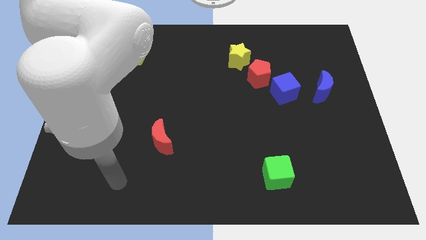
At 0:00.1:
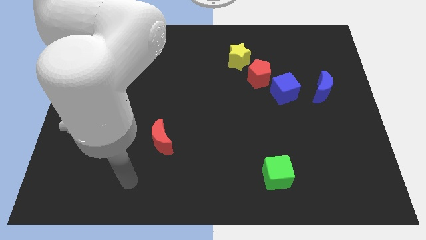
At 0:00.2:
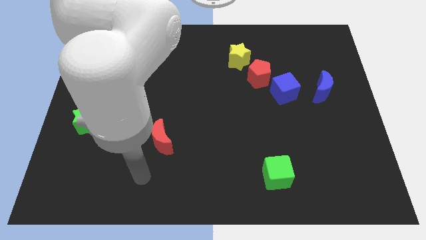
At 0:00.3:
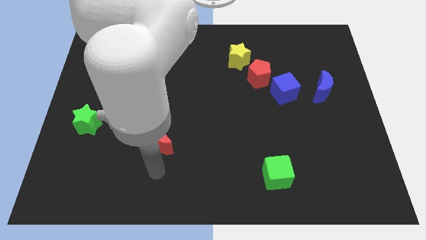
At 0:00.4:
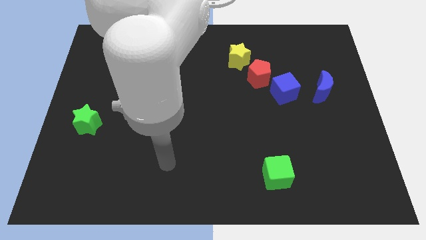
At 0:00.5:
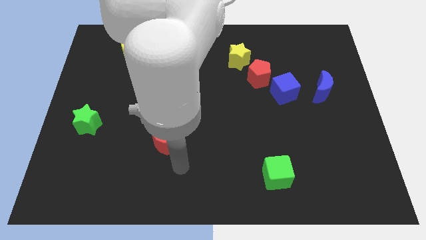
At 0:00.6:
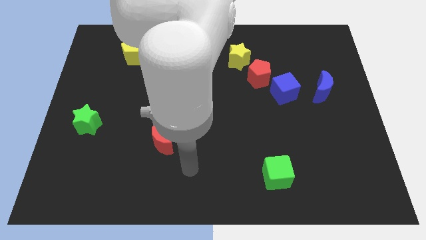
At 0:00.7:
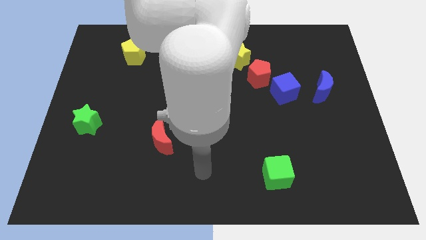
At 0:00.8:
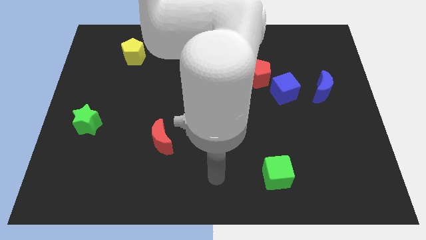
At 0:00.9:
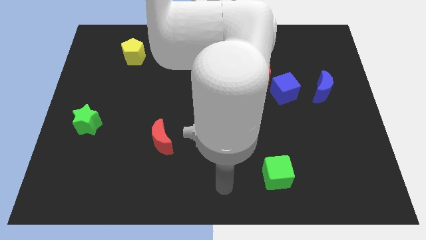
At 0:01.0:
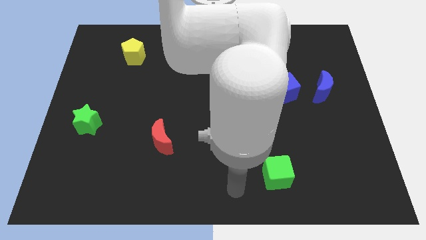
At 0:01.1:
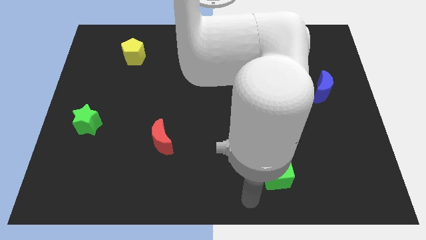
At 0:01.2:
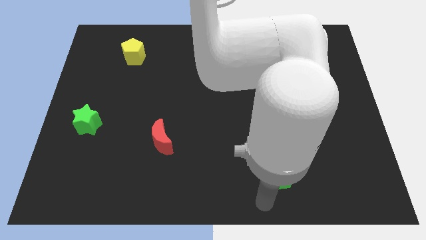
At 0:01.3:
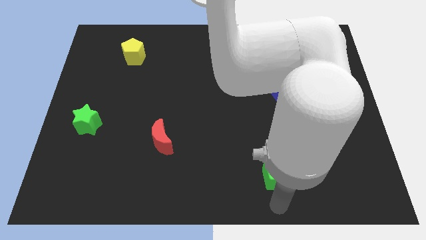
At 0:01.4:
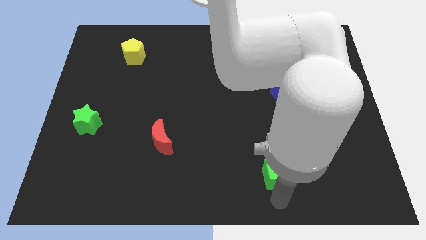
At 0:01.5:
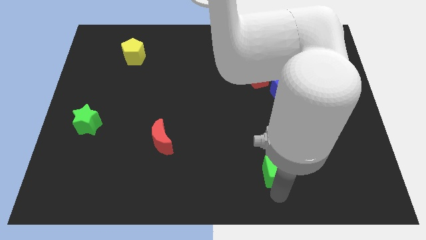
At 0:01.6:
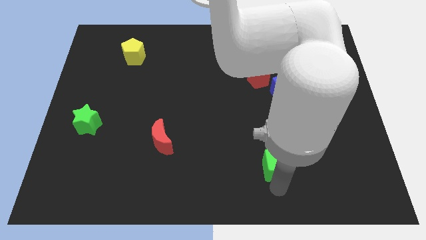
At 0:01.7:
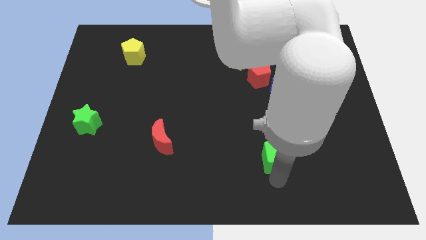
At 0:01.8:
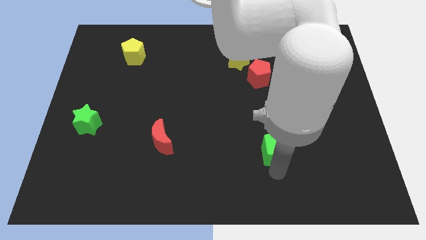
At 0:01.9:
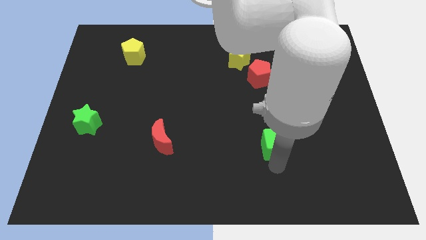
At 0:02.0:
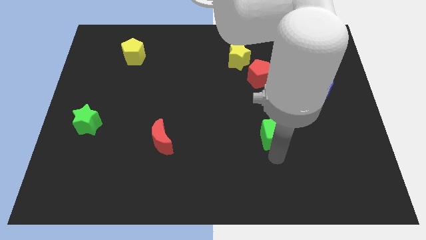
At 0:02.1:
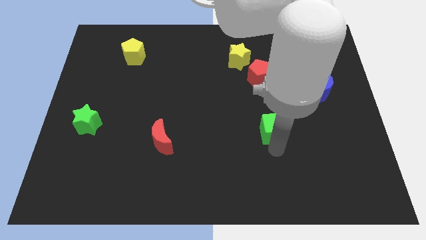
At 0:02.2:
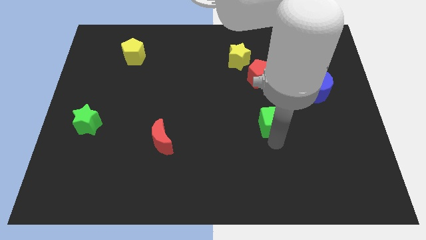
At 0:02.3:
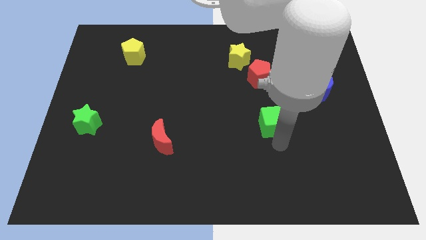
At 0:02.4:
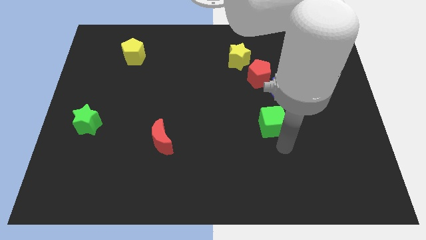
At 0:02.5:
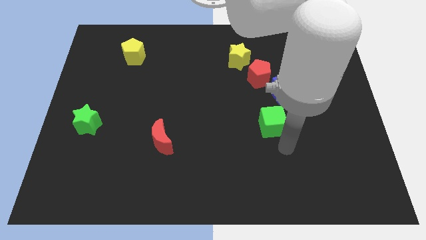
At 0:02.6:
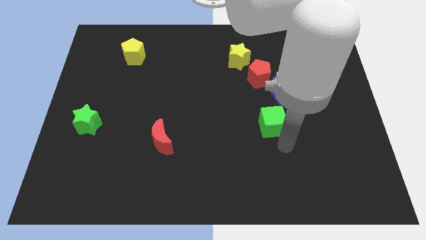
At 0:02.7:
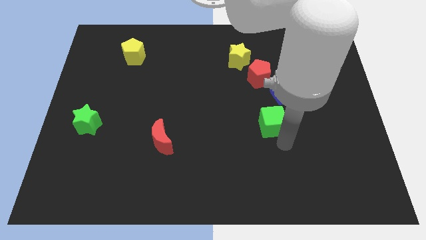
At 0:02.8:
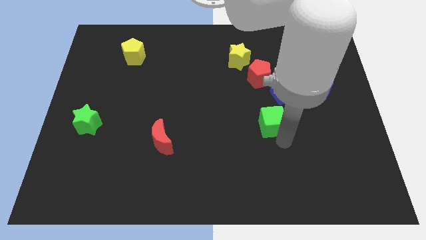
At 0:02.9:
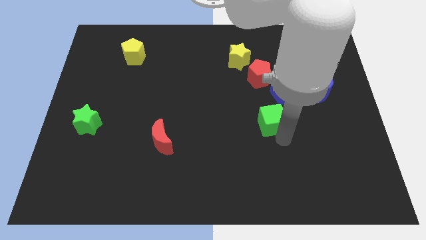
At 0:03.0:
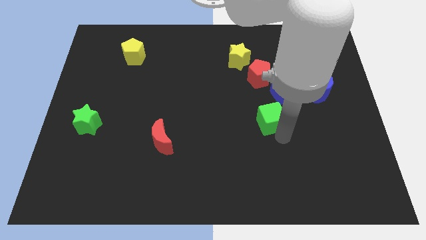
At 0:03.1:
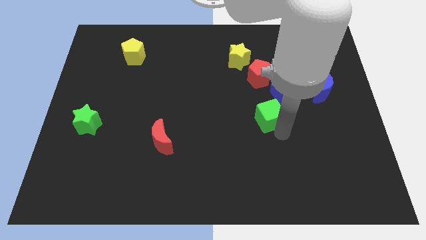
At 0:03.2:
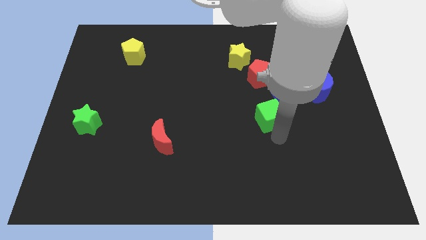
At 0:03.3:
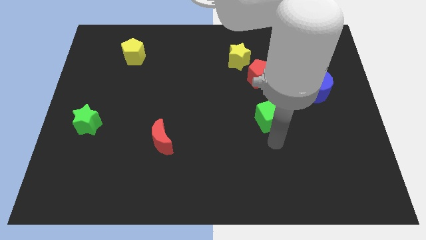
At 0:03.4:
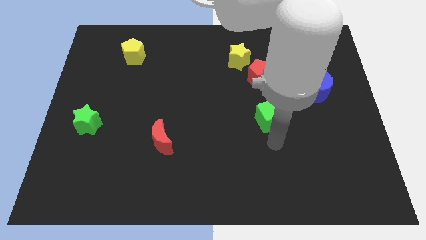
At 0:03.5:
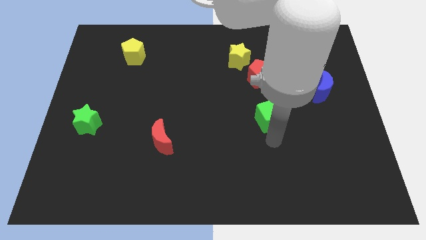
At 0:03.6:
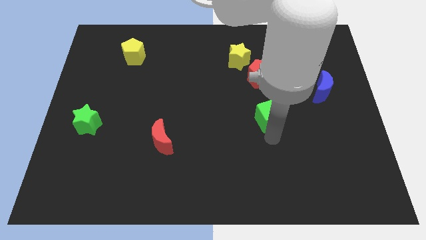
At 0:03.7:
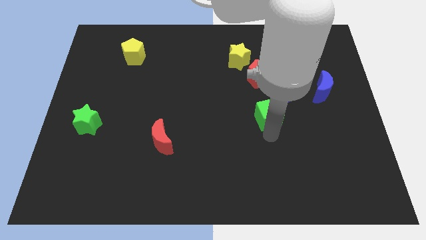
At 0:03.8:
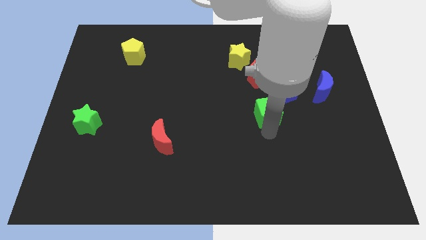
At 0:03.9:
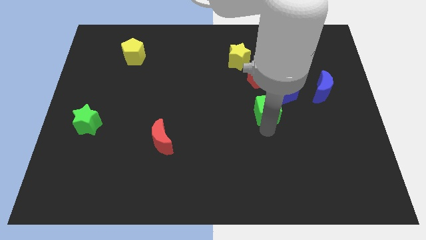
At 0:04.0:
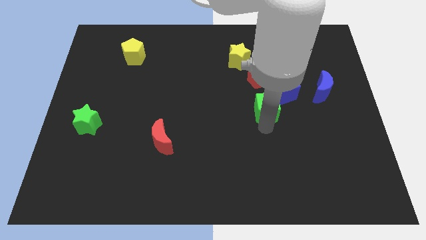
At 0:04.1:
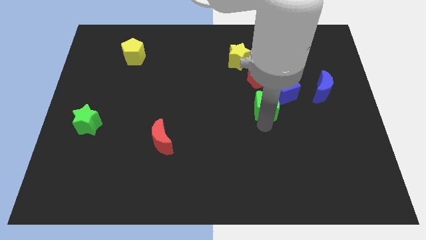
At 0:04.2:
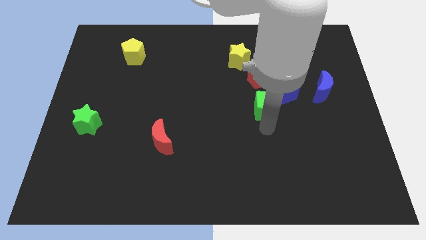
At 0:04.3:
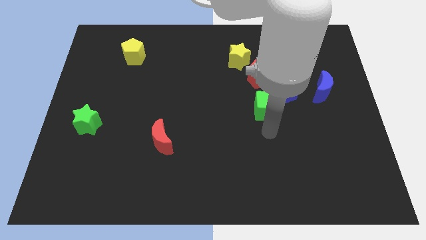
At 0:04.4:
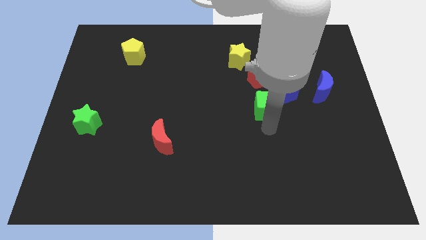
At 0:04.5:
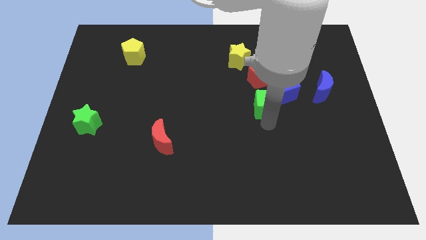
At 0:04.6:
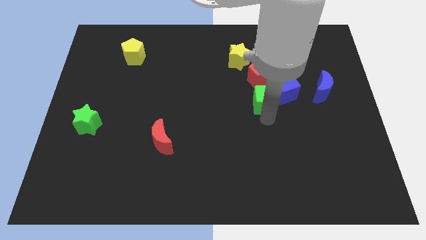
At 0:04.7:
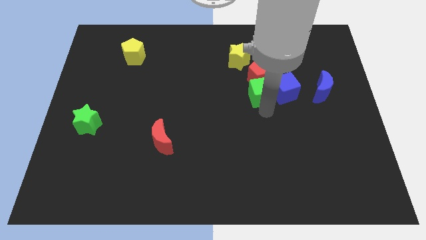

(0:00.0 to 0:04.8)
put the green cube to the red pentagon

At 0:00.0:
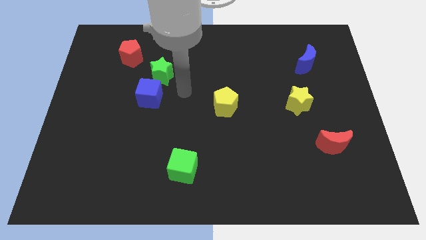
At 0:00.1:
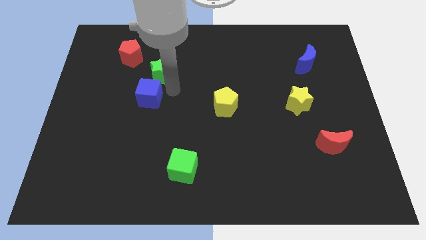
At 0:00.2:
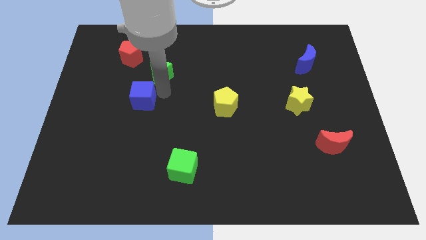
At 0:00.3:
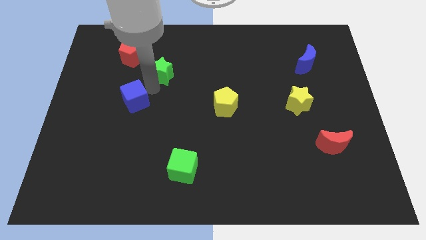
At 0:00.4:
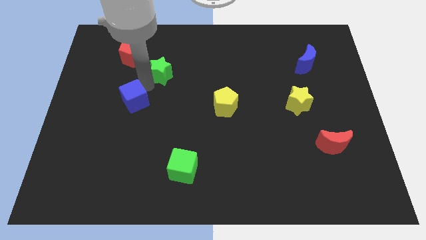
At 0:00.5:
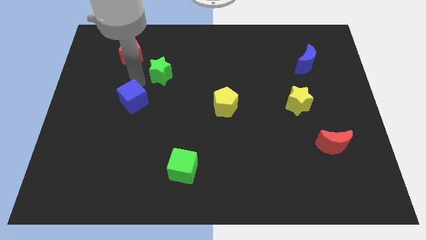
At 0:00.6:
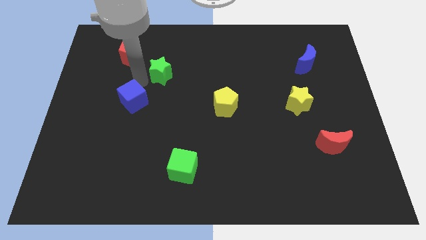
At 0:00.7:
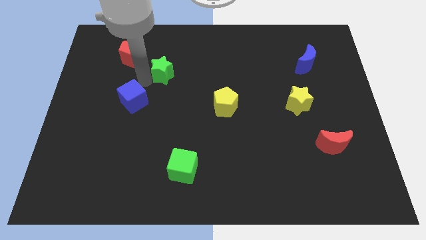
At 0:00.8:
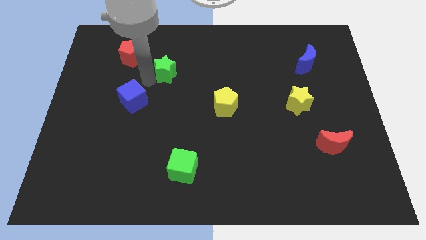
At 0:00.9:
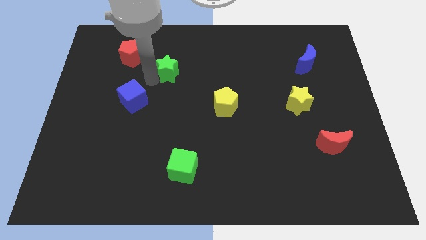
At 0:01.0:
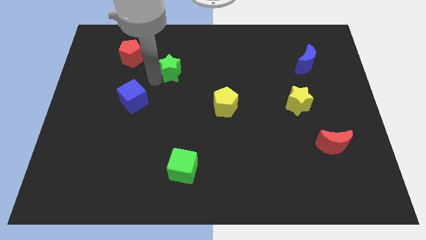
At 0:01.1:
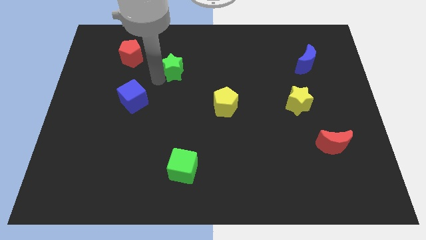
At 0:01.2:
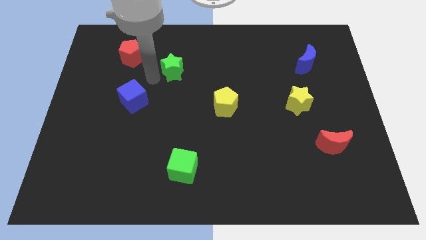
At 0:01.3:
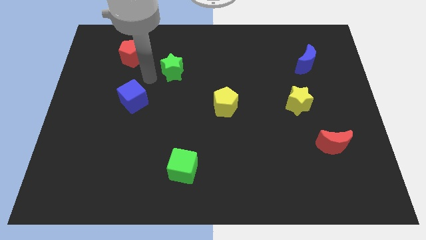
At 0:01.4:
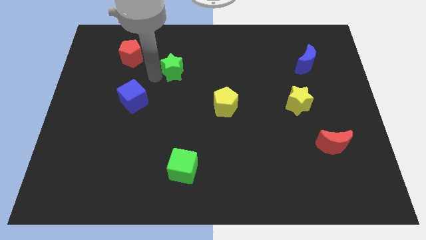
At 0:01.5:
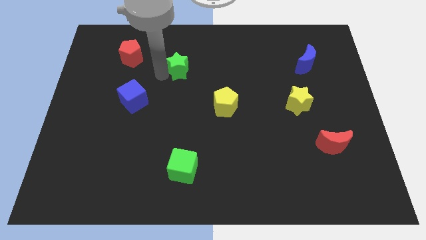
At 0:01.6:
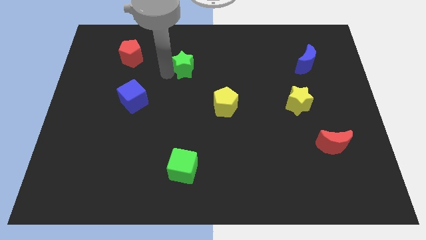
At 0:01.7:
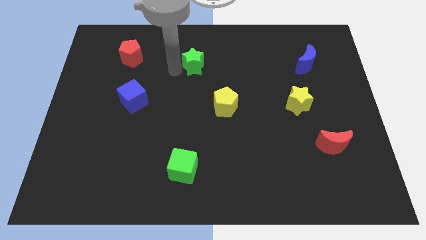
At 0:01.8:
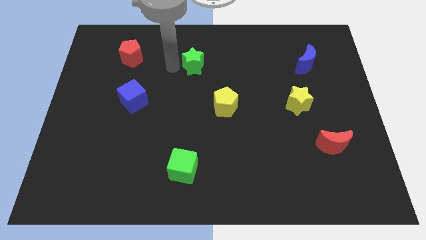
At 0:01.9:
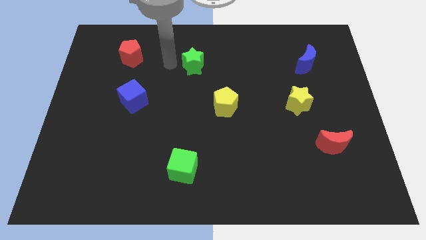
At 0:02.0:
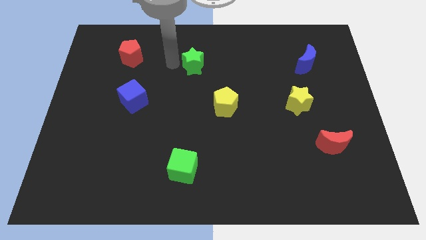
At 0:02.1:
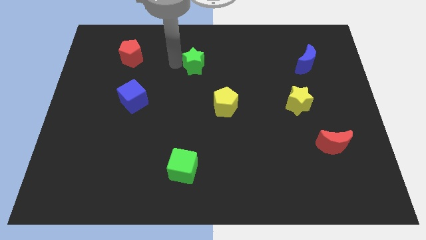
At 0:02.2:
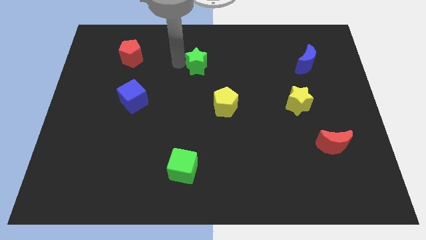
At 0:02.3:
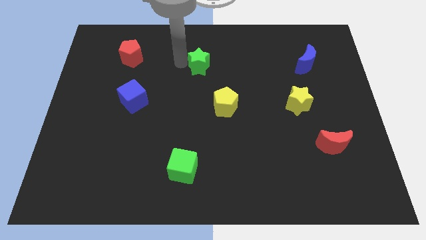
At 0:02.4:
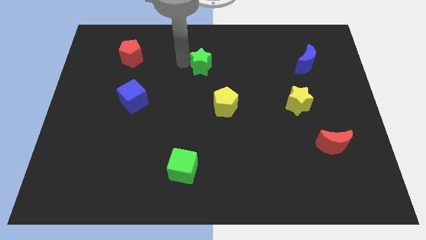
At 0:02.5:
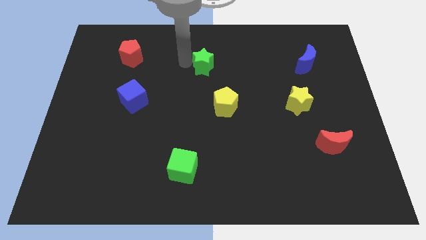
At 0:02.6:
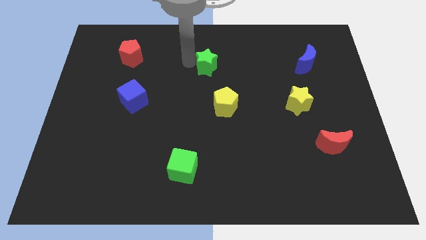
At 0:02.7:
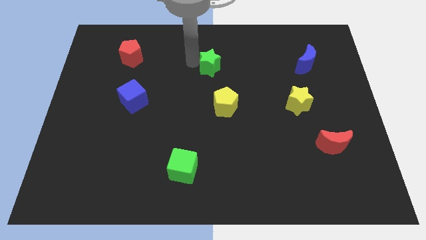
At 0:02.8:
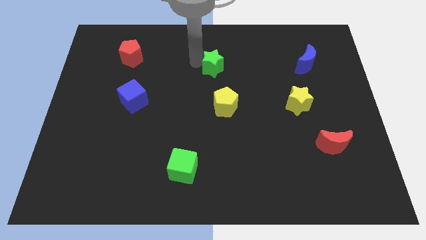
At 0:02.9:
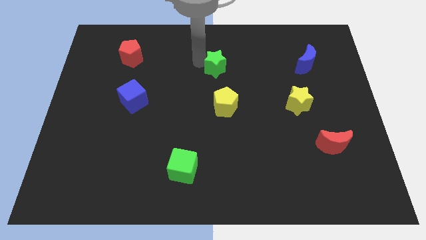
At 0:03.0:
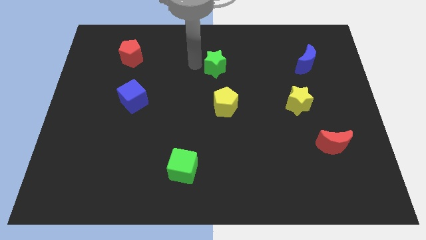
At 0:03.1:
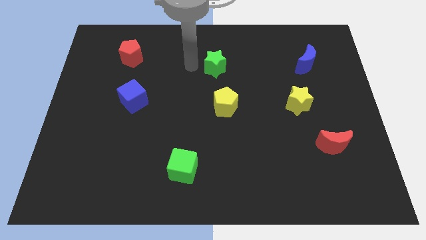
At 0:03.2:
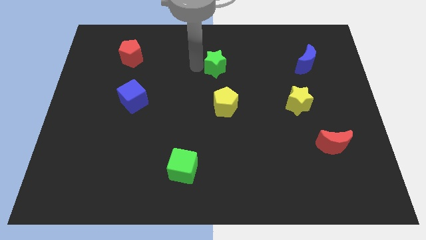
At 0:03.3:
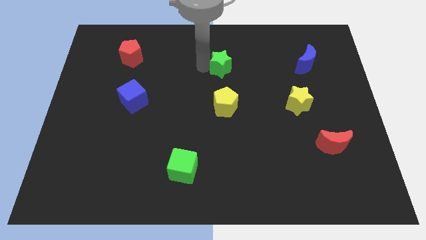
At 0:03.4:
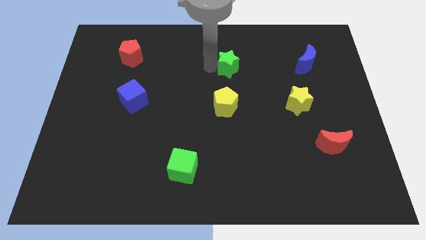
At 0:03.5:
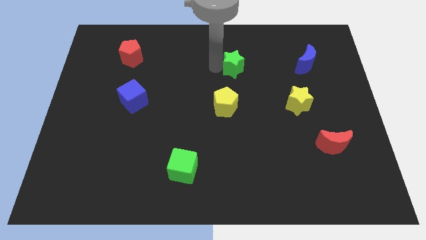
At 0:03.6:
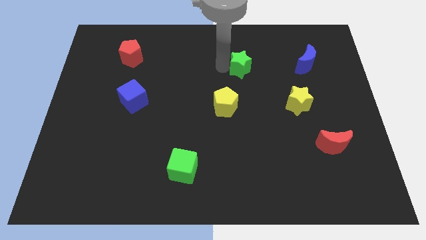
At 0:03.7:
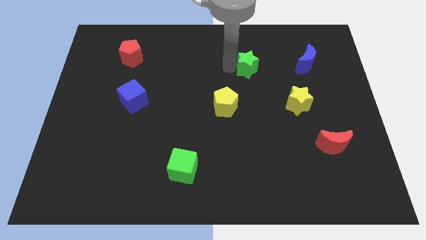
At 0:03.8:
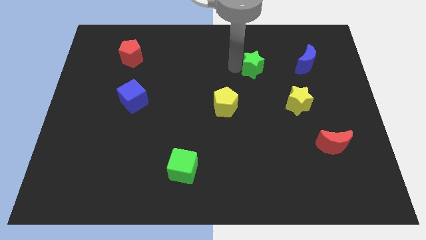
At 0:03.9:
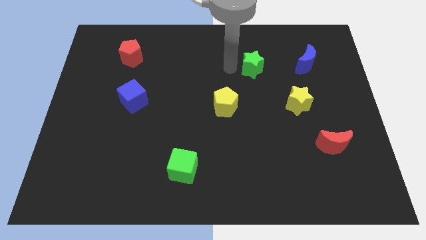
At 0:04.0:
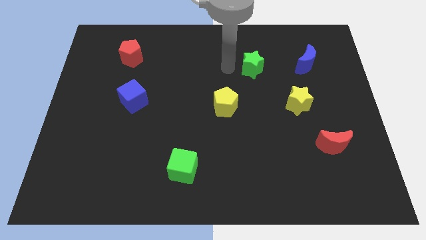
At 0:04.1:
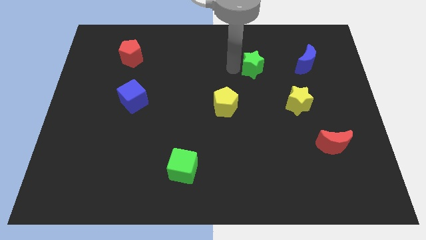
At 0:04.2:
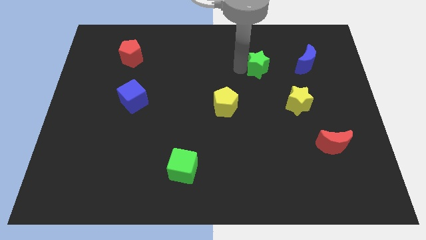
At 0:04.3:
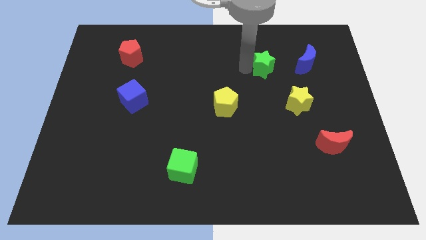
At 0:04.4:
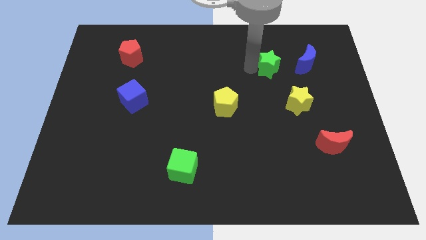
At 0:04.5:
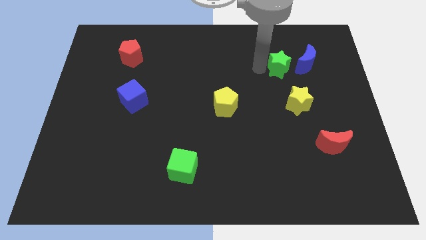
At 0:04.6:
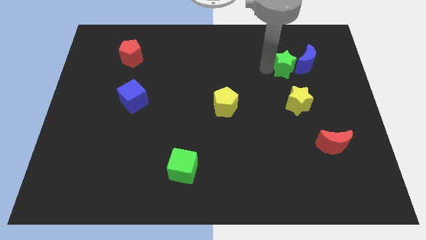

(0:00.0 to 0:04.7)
move the green star close to the blue moon
